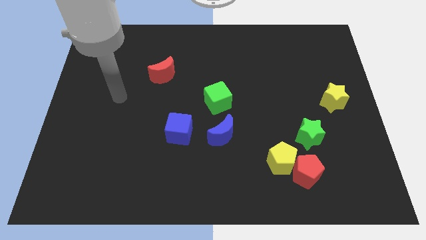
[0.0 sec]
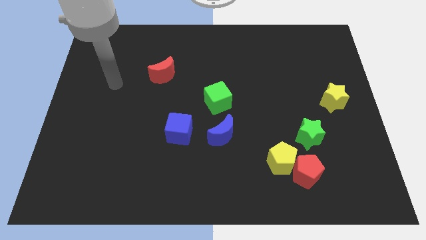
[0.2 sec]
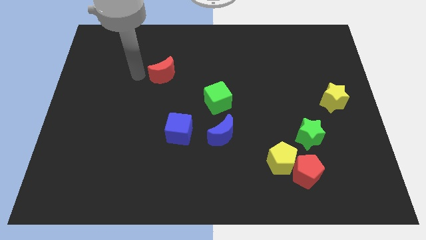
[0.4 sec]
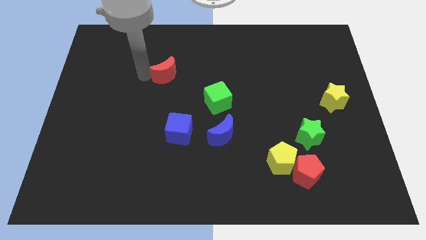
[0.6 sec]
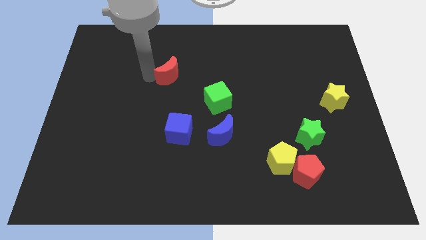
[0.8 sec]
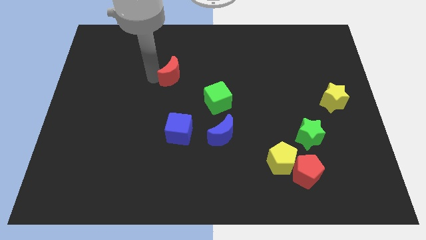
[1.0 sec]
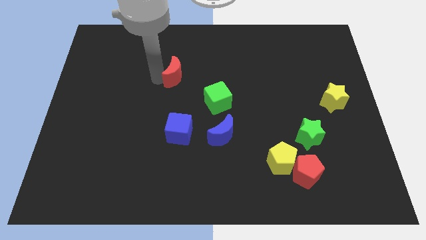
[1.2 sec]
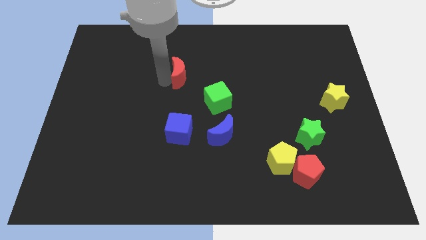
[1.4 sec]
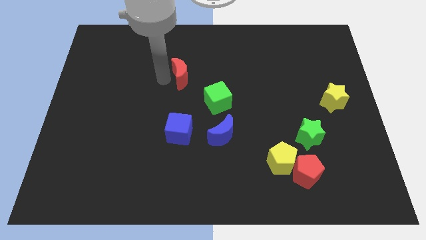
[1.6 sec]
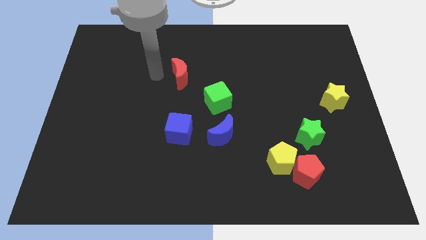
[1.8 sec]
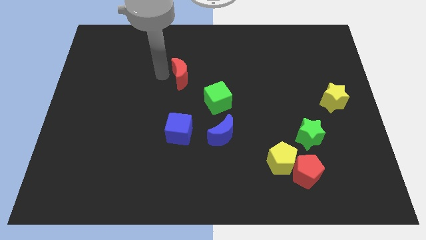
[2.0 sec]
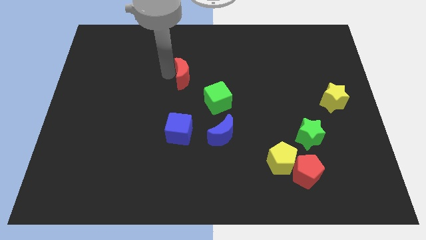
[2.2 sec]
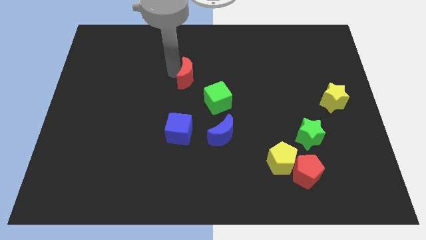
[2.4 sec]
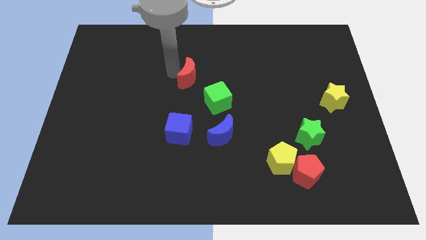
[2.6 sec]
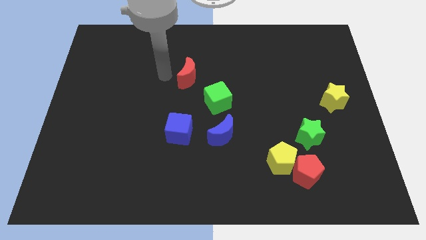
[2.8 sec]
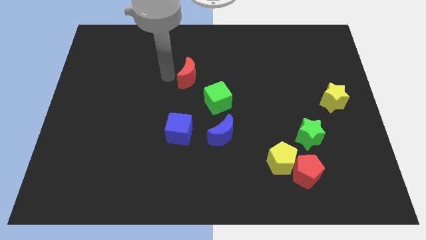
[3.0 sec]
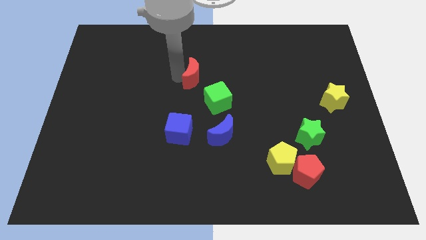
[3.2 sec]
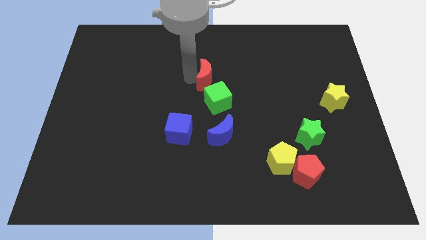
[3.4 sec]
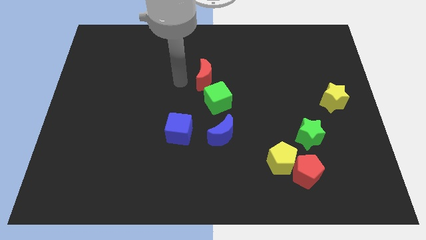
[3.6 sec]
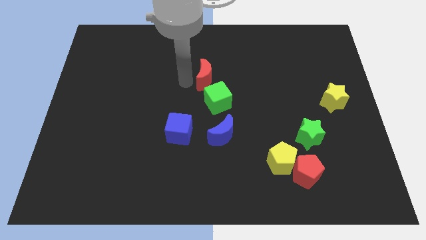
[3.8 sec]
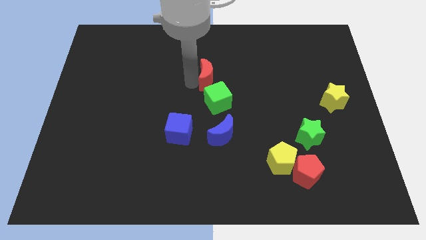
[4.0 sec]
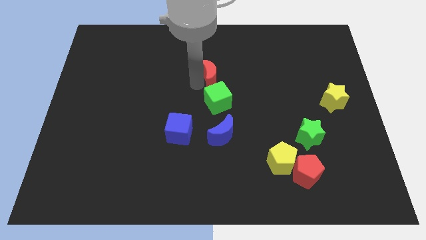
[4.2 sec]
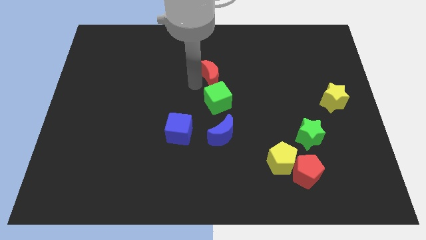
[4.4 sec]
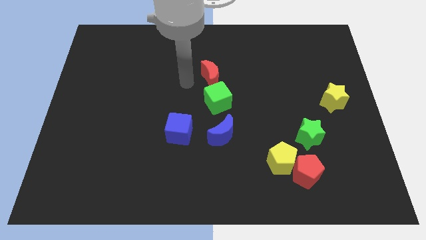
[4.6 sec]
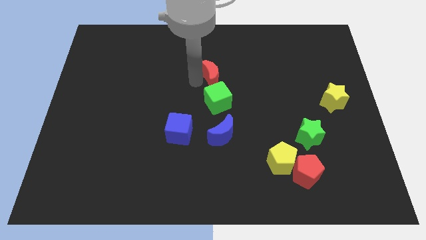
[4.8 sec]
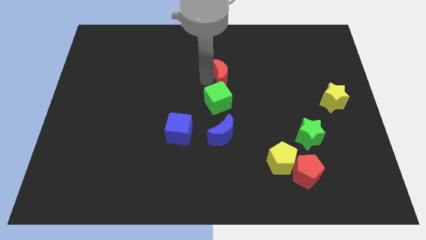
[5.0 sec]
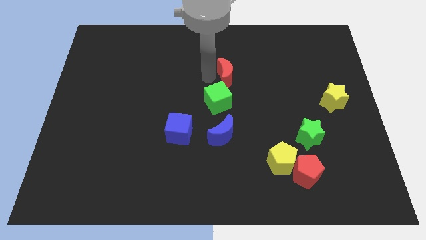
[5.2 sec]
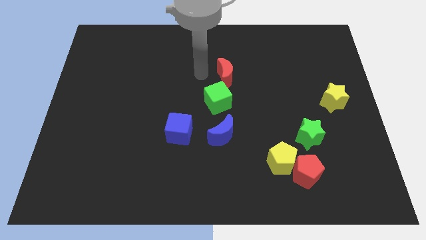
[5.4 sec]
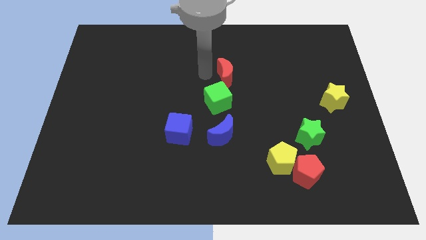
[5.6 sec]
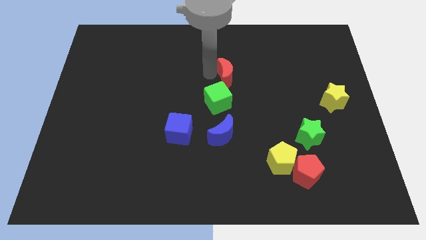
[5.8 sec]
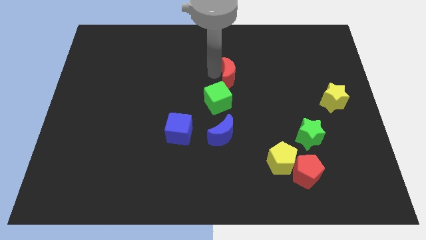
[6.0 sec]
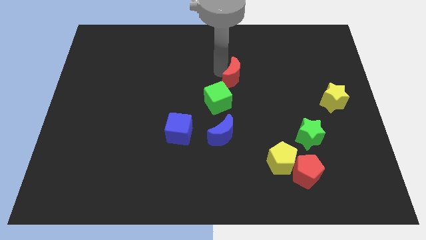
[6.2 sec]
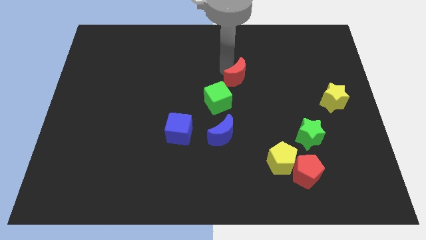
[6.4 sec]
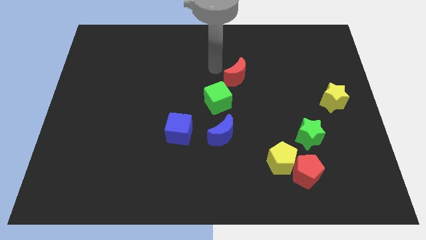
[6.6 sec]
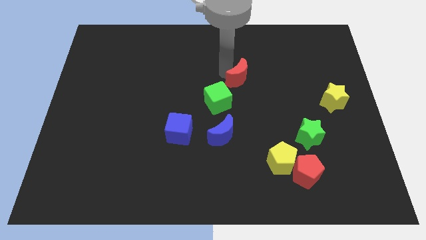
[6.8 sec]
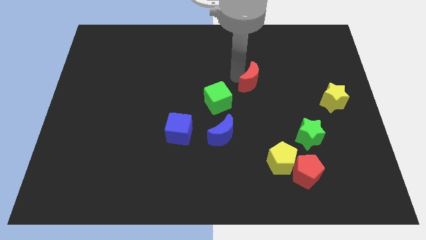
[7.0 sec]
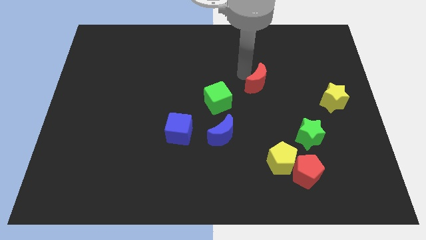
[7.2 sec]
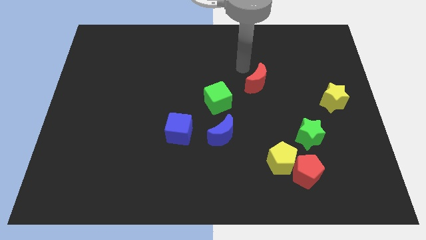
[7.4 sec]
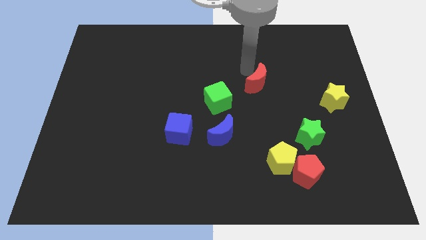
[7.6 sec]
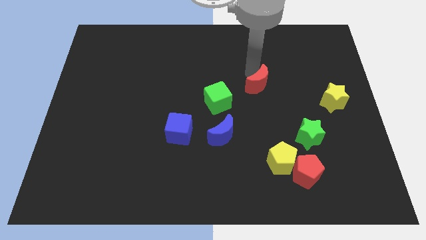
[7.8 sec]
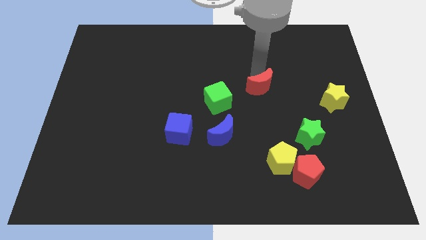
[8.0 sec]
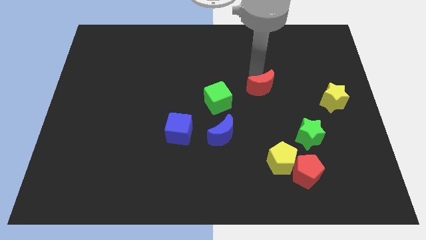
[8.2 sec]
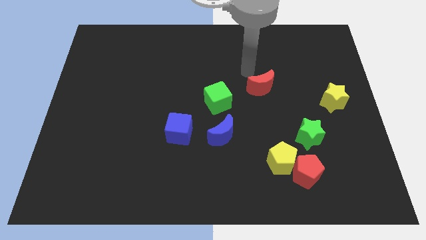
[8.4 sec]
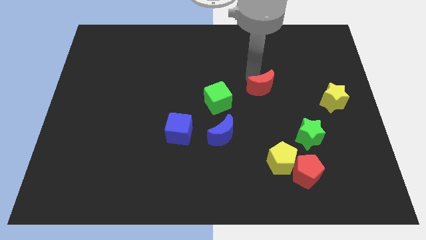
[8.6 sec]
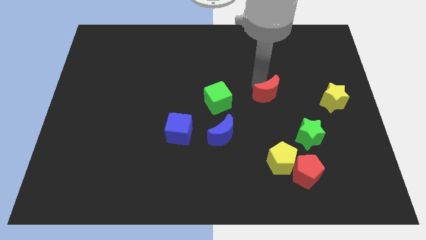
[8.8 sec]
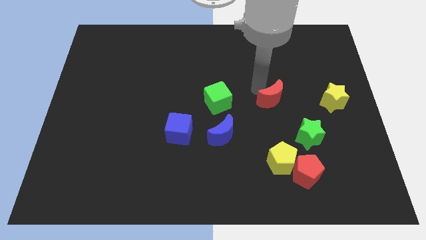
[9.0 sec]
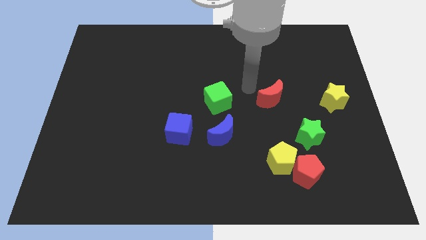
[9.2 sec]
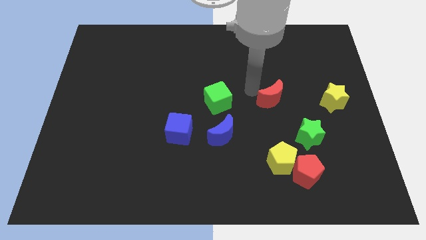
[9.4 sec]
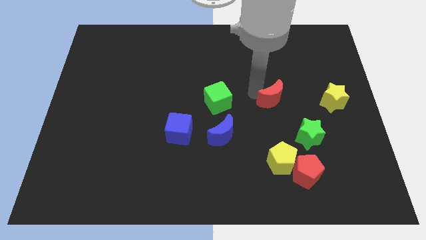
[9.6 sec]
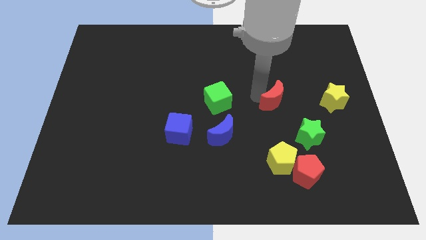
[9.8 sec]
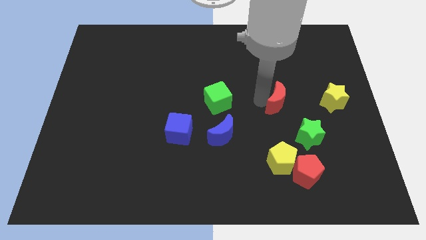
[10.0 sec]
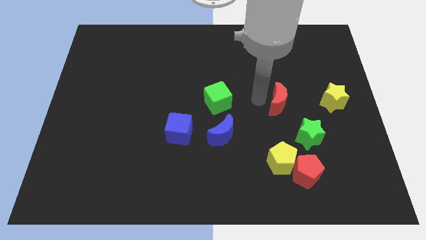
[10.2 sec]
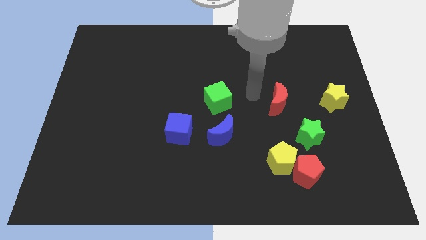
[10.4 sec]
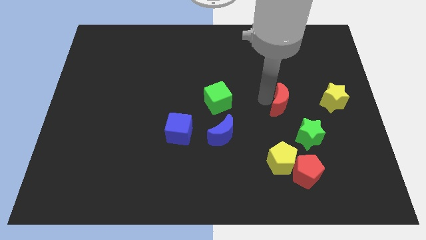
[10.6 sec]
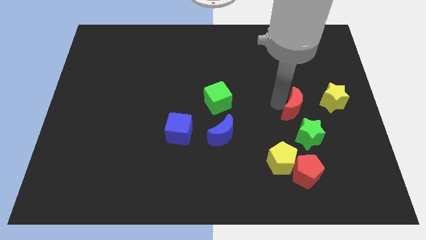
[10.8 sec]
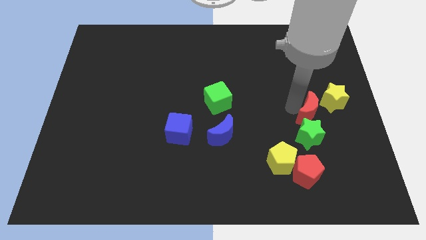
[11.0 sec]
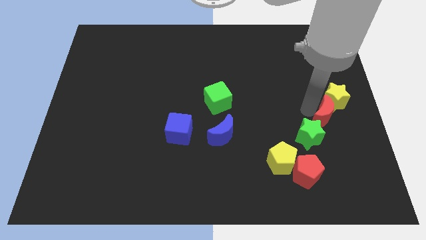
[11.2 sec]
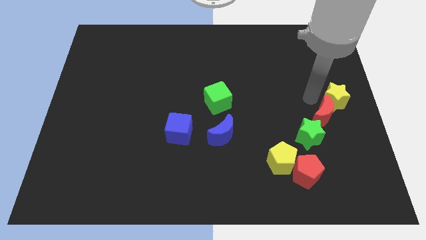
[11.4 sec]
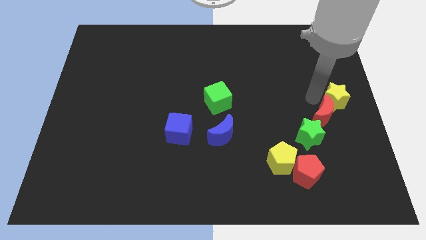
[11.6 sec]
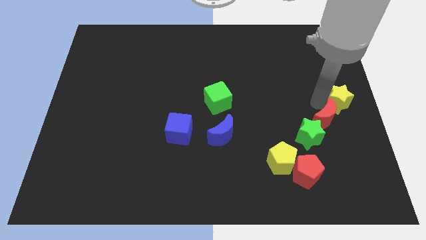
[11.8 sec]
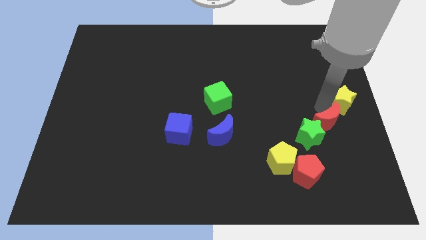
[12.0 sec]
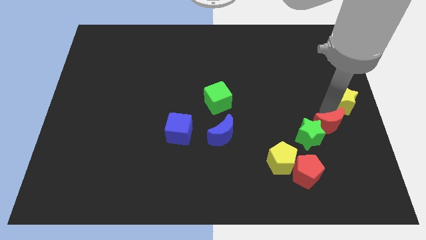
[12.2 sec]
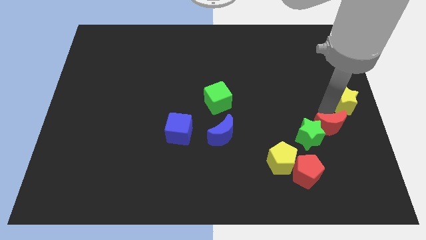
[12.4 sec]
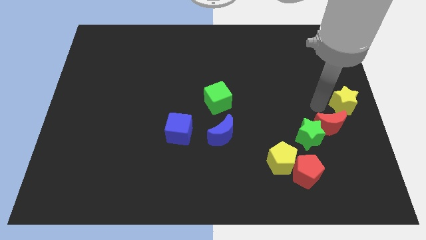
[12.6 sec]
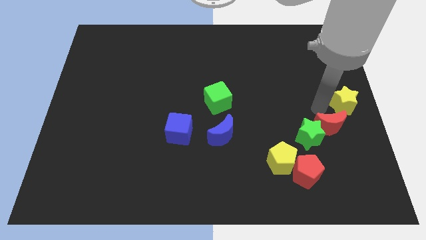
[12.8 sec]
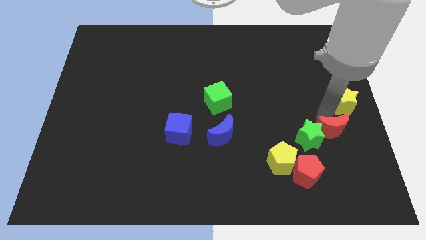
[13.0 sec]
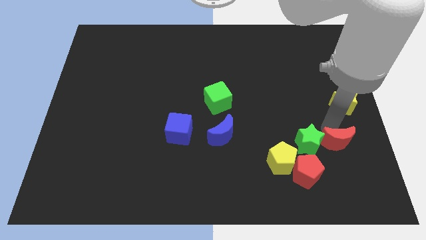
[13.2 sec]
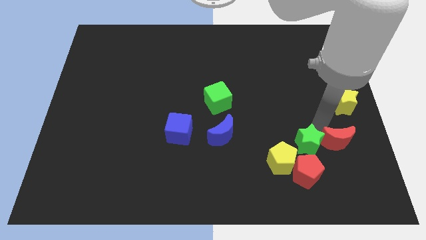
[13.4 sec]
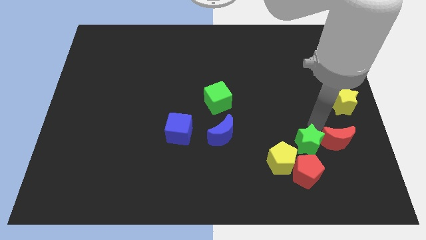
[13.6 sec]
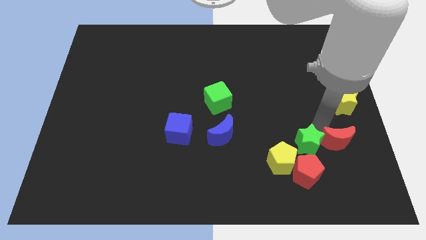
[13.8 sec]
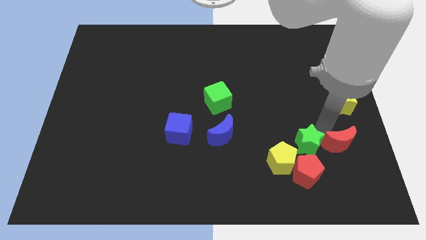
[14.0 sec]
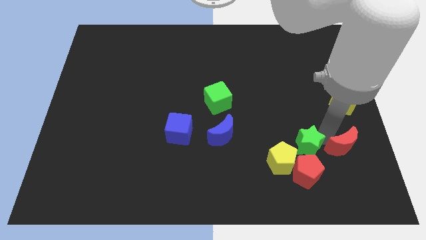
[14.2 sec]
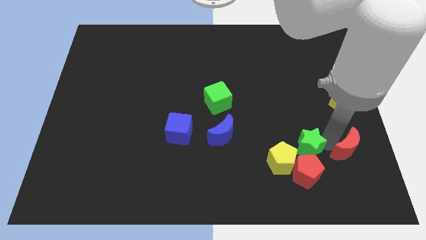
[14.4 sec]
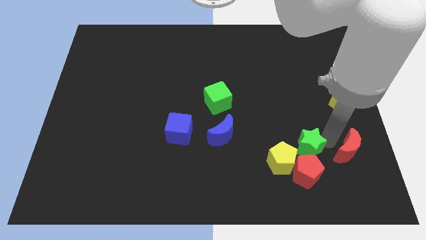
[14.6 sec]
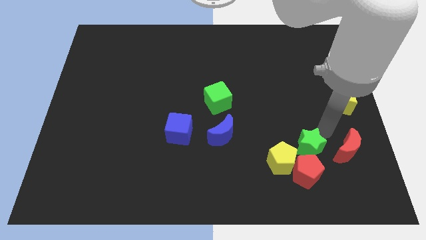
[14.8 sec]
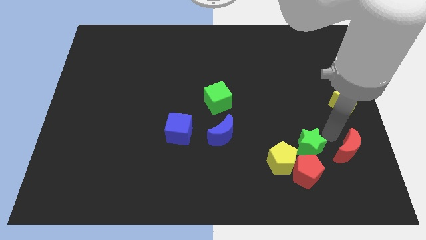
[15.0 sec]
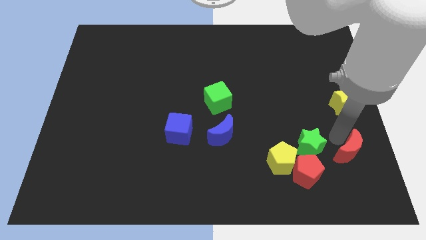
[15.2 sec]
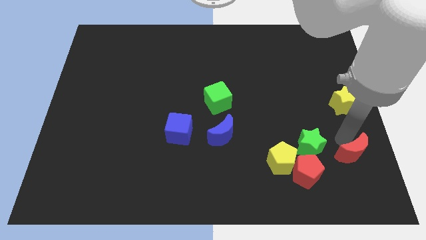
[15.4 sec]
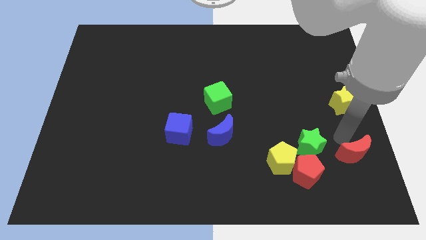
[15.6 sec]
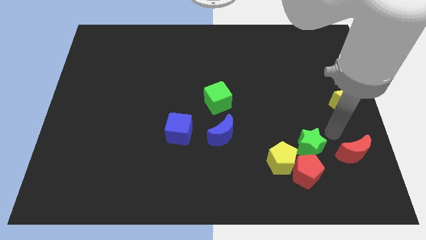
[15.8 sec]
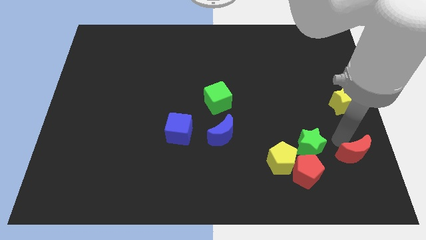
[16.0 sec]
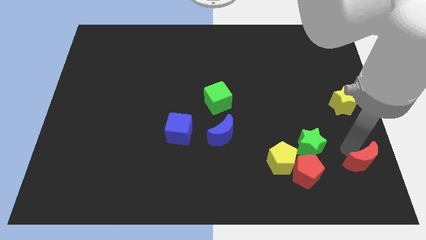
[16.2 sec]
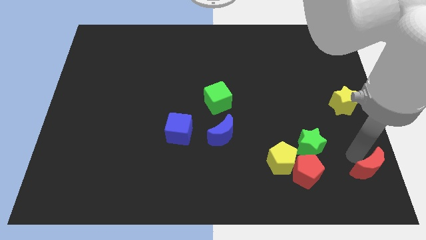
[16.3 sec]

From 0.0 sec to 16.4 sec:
move the red moon to the bottom right corner
